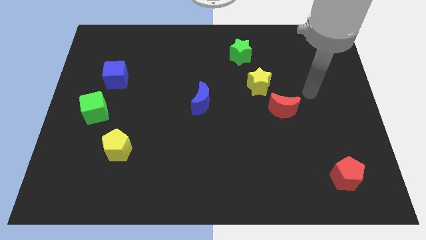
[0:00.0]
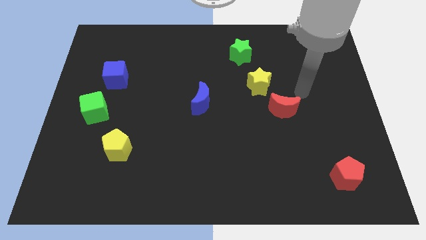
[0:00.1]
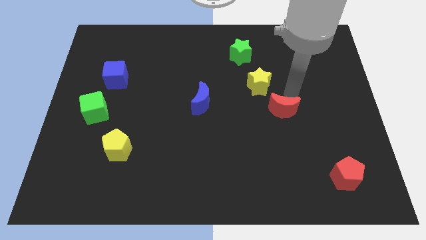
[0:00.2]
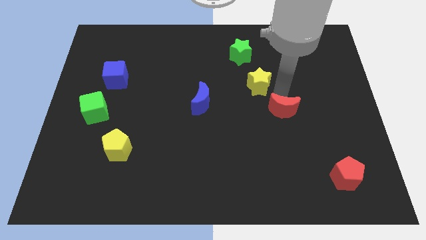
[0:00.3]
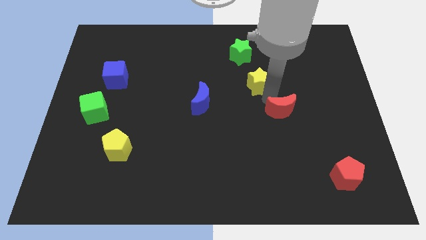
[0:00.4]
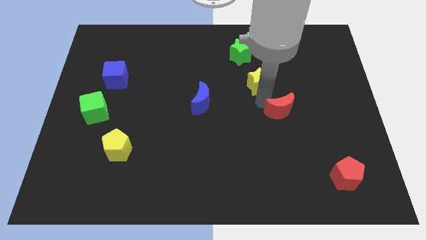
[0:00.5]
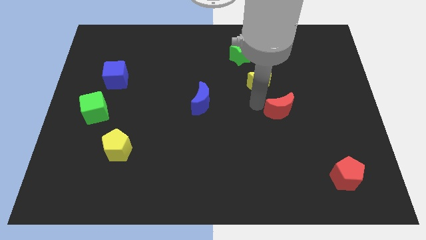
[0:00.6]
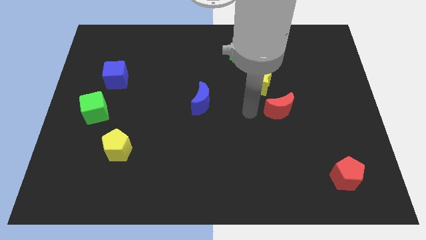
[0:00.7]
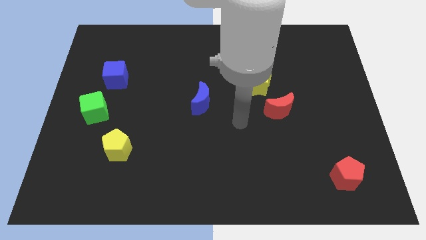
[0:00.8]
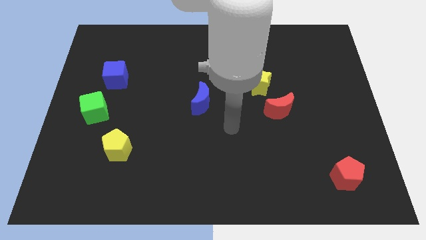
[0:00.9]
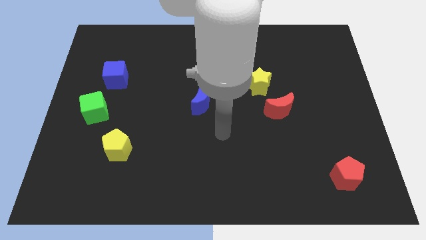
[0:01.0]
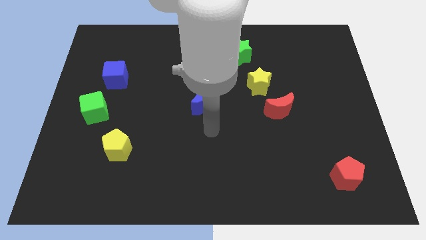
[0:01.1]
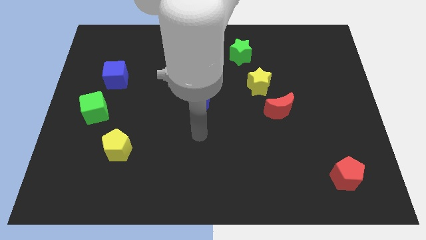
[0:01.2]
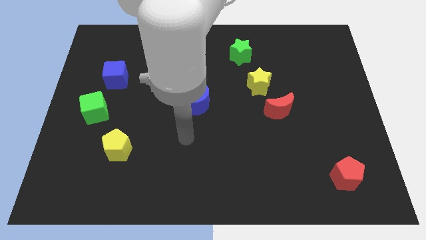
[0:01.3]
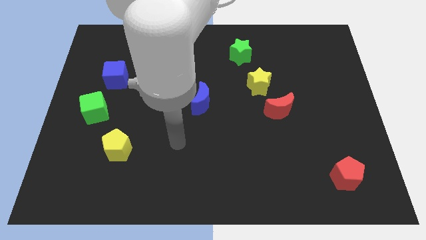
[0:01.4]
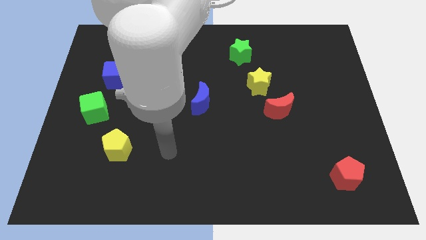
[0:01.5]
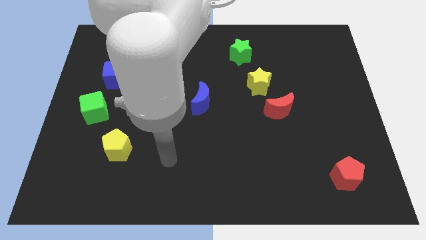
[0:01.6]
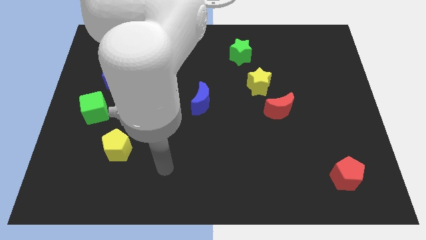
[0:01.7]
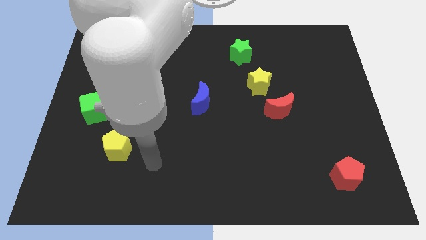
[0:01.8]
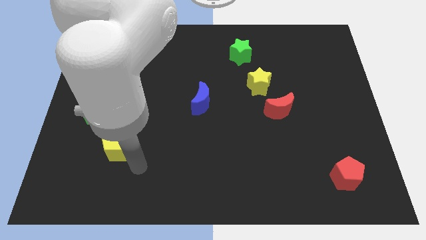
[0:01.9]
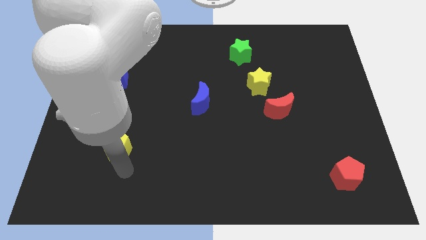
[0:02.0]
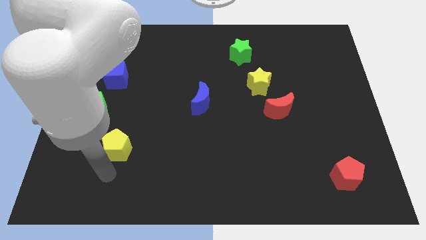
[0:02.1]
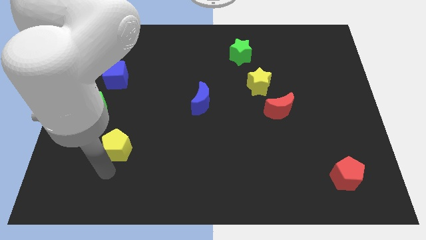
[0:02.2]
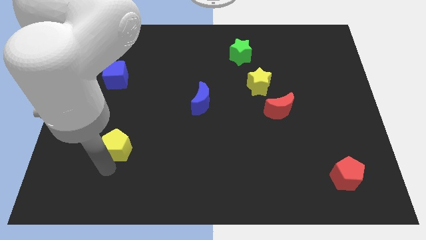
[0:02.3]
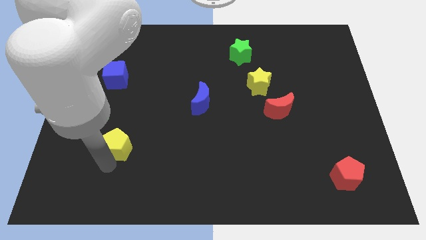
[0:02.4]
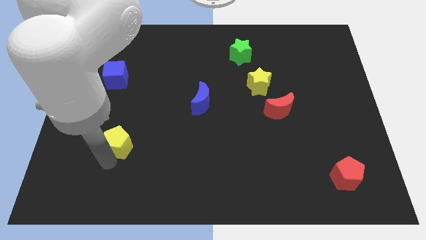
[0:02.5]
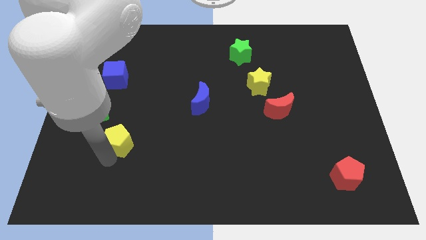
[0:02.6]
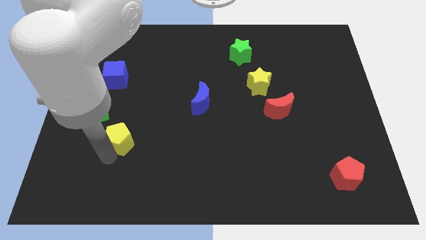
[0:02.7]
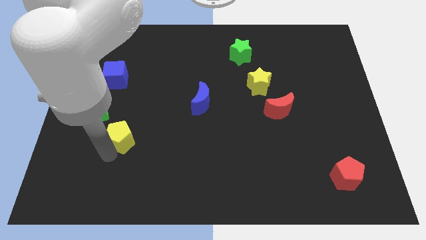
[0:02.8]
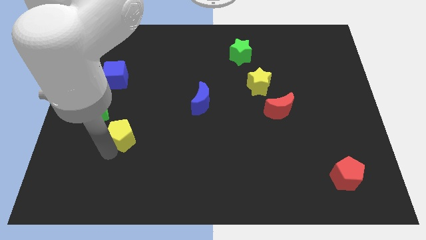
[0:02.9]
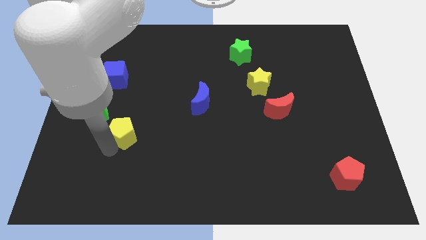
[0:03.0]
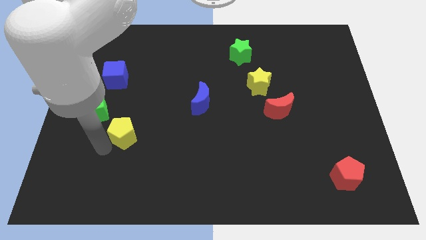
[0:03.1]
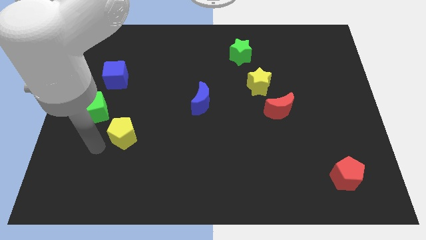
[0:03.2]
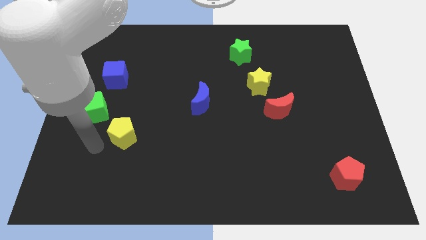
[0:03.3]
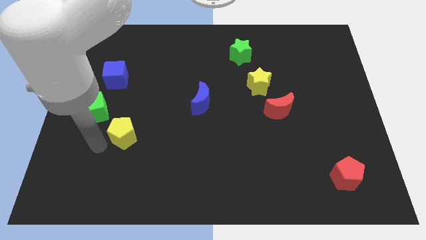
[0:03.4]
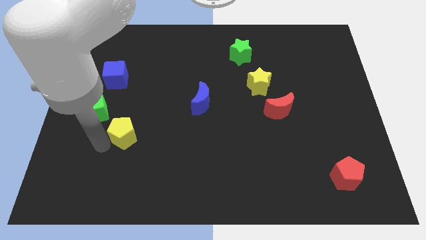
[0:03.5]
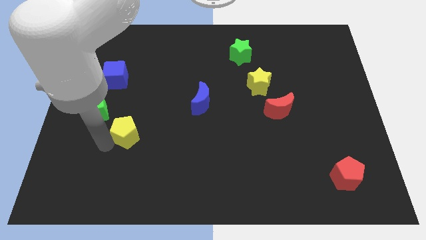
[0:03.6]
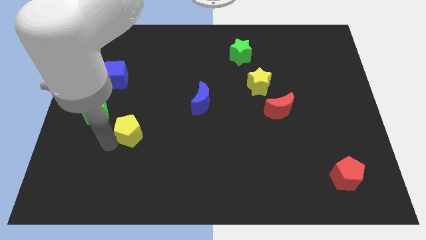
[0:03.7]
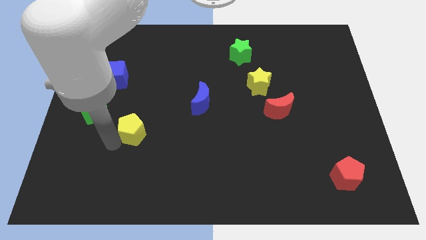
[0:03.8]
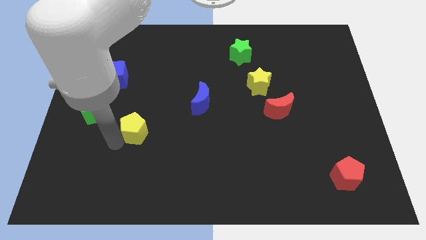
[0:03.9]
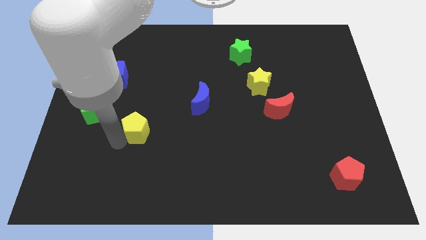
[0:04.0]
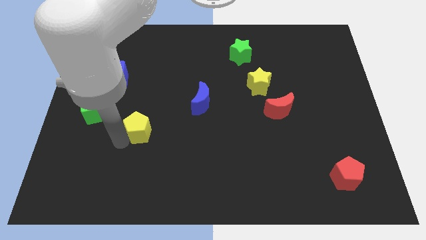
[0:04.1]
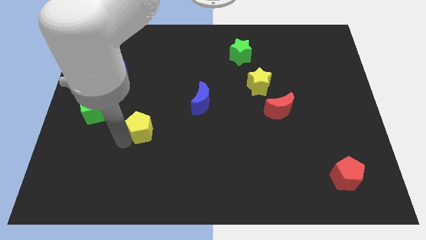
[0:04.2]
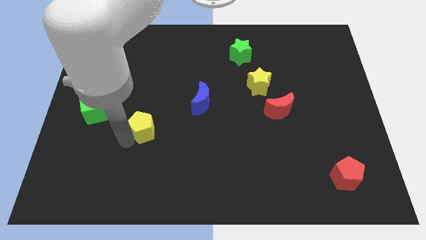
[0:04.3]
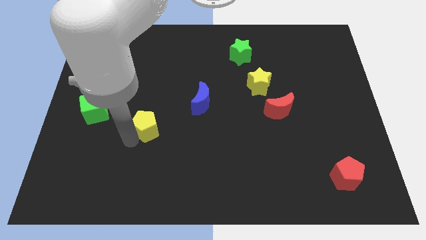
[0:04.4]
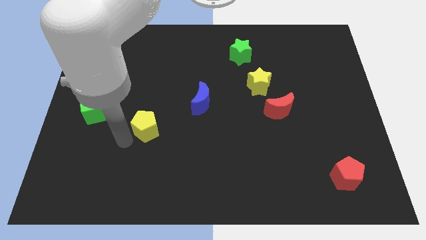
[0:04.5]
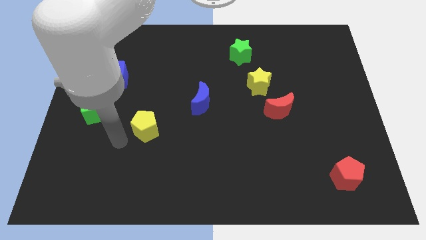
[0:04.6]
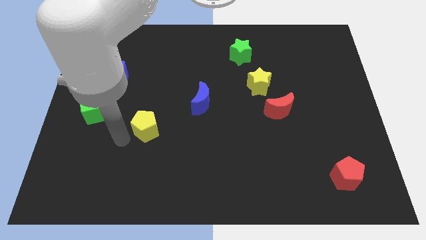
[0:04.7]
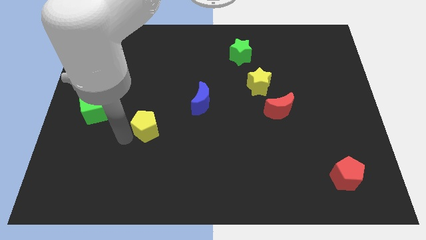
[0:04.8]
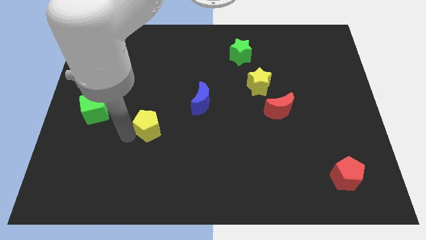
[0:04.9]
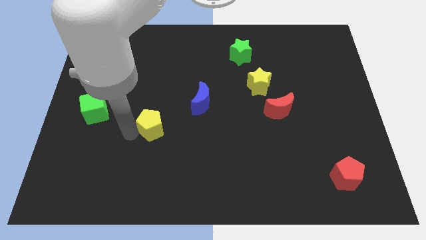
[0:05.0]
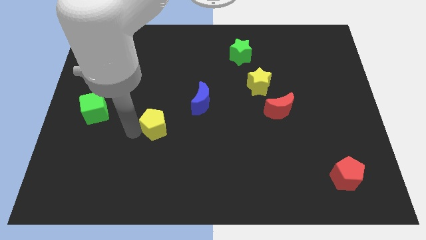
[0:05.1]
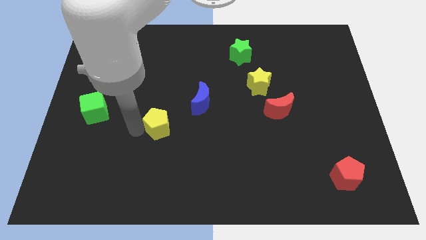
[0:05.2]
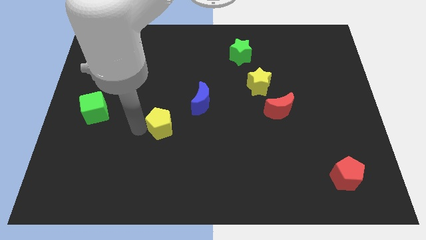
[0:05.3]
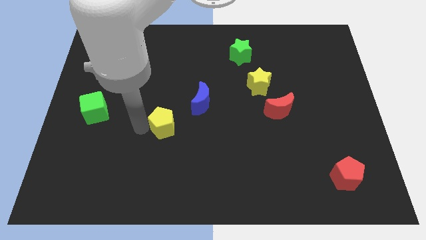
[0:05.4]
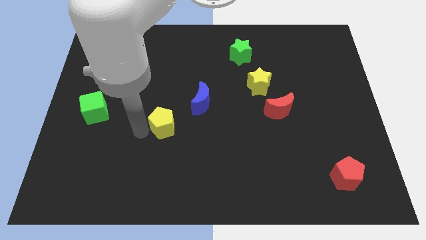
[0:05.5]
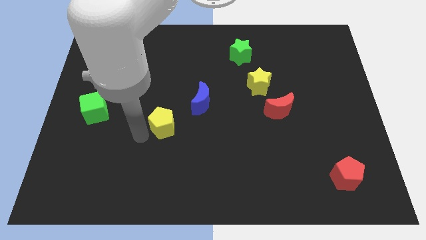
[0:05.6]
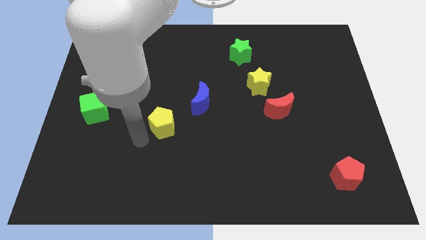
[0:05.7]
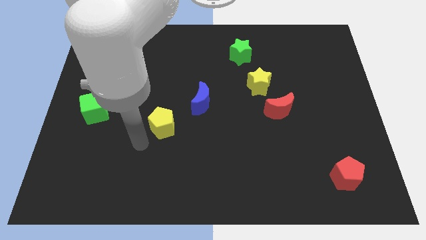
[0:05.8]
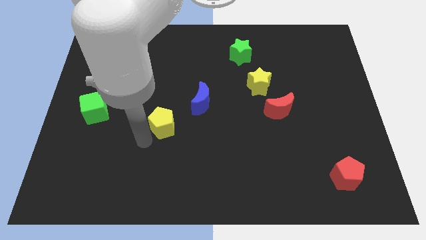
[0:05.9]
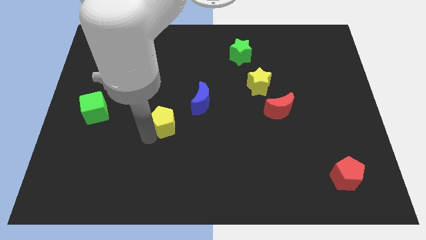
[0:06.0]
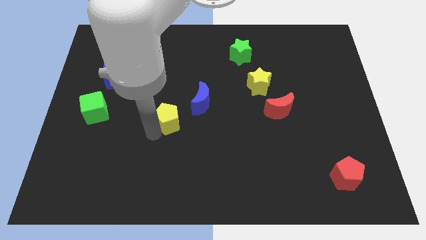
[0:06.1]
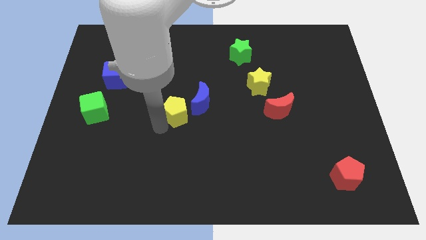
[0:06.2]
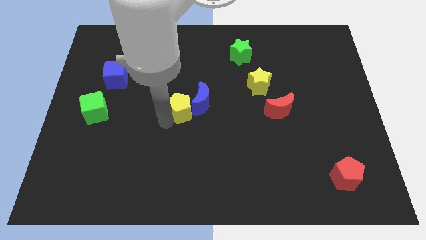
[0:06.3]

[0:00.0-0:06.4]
slide the yellow pentagon close to the blue moon

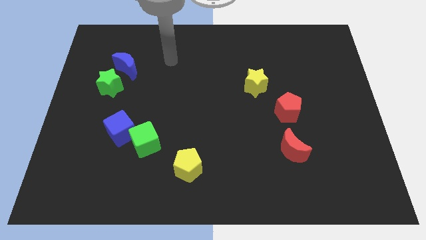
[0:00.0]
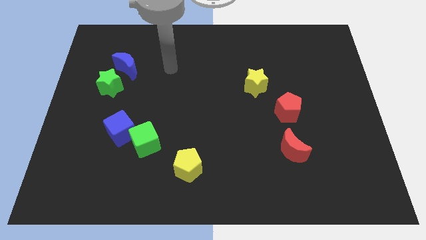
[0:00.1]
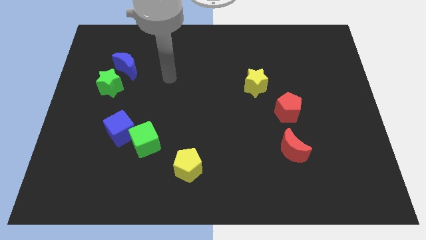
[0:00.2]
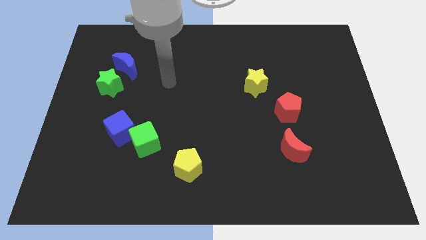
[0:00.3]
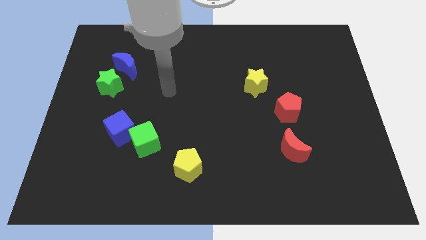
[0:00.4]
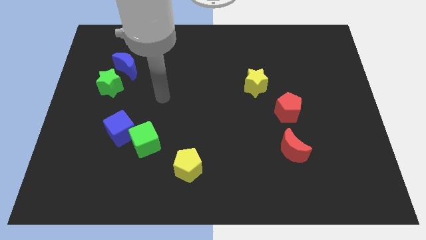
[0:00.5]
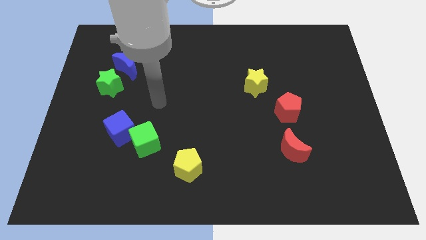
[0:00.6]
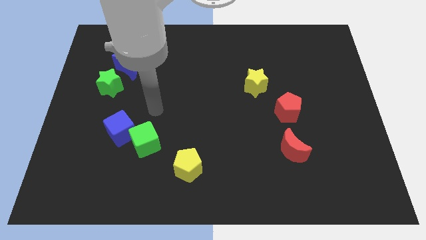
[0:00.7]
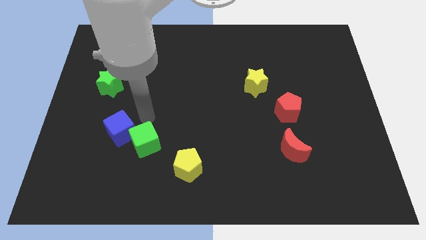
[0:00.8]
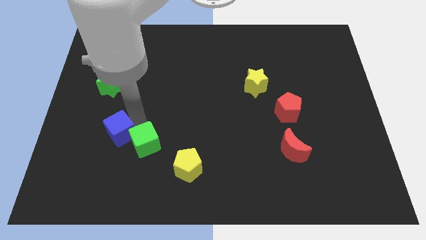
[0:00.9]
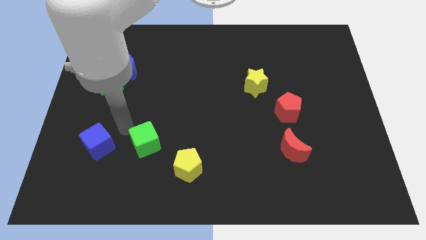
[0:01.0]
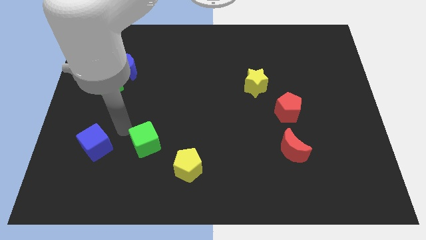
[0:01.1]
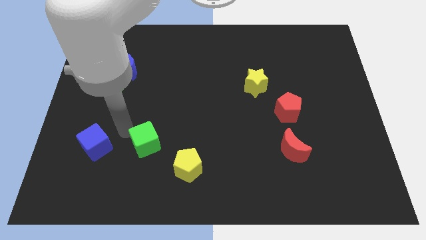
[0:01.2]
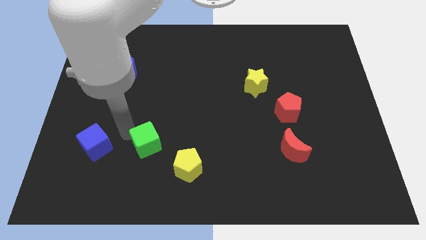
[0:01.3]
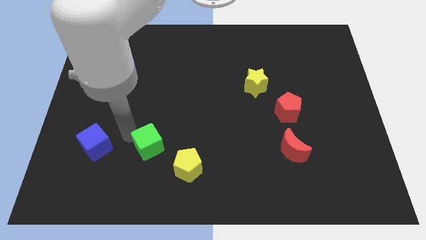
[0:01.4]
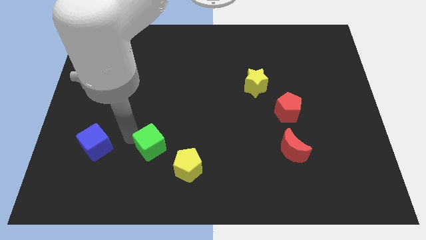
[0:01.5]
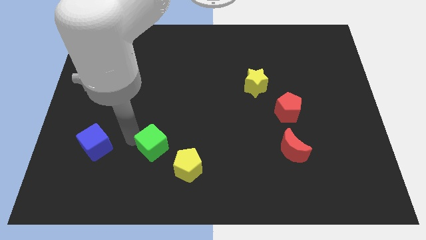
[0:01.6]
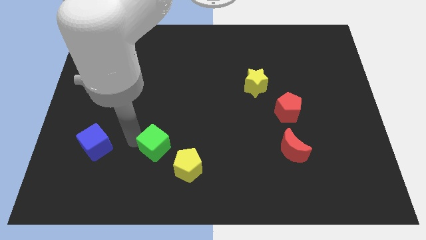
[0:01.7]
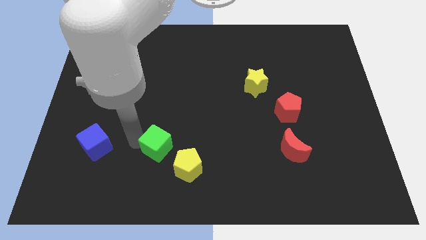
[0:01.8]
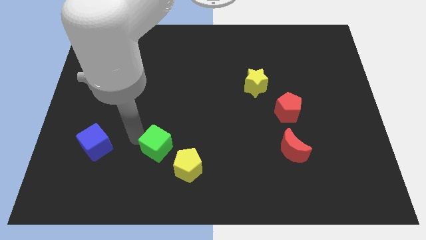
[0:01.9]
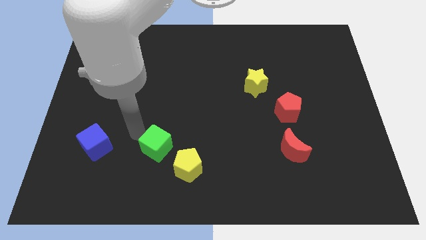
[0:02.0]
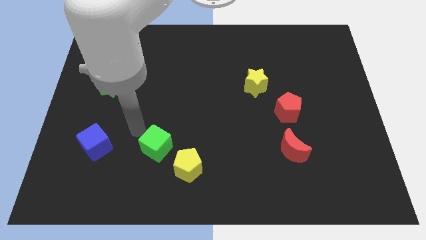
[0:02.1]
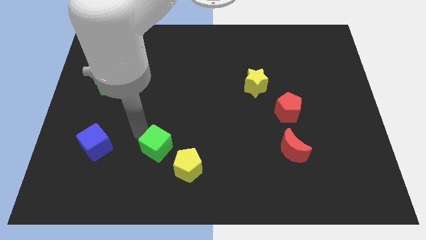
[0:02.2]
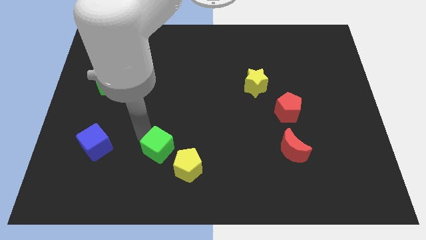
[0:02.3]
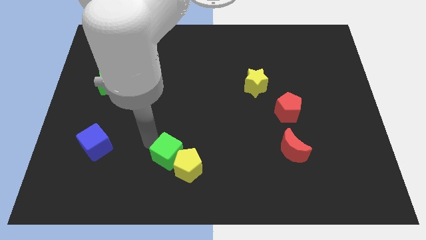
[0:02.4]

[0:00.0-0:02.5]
move the green cube close to the yellow pentagon
